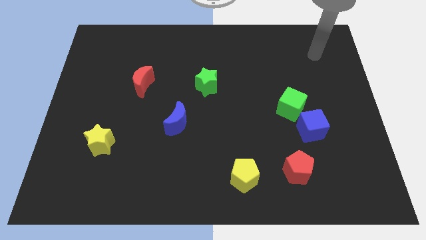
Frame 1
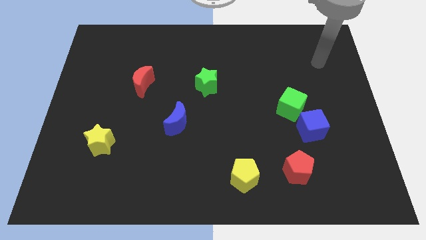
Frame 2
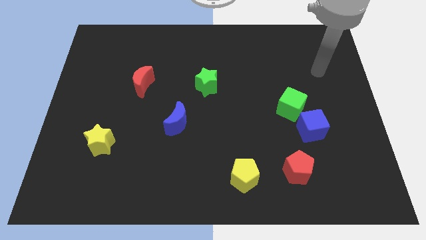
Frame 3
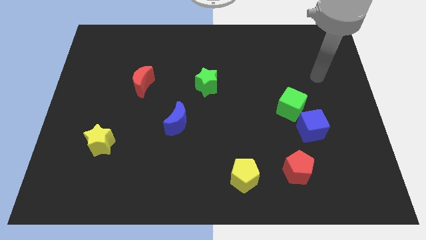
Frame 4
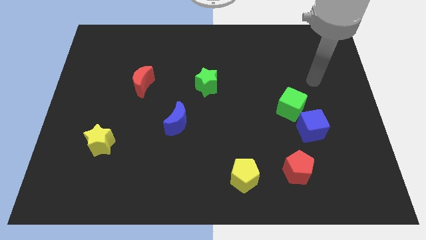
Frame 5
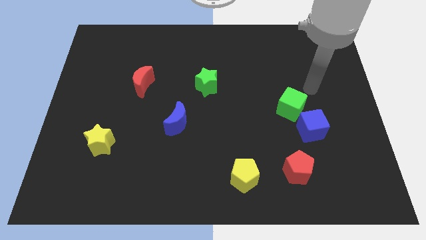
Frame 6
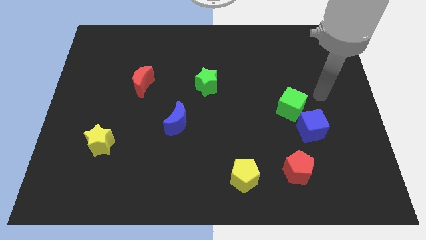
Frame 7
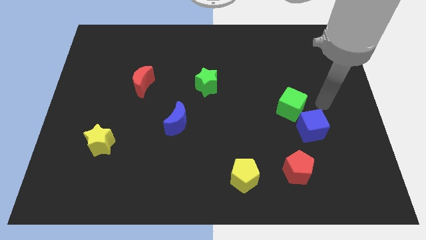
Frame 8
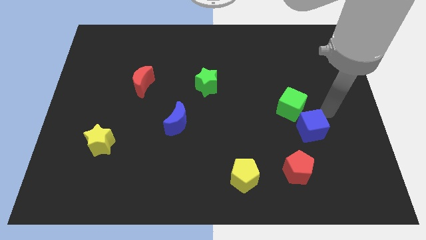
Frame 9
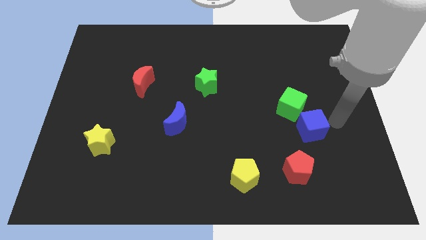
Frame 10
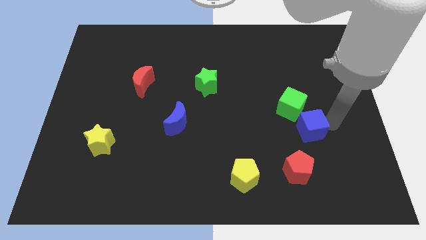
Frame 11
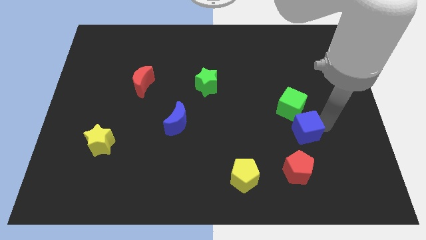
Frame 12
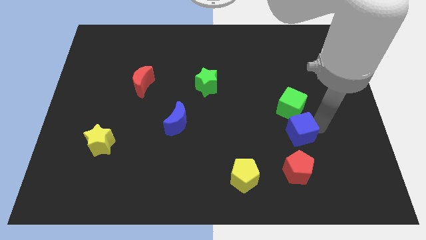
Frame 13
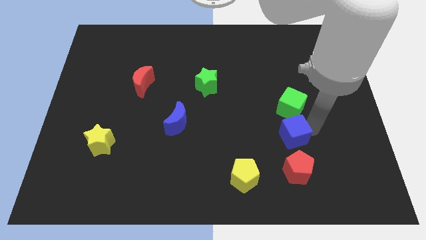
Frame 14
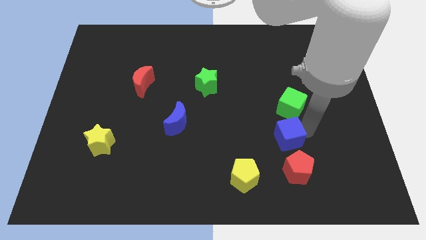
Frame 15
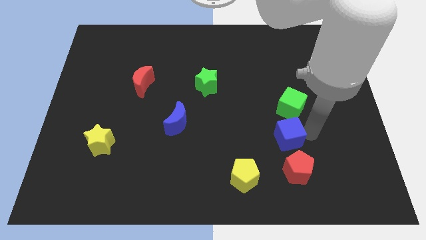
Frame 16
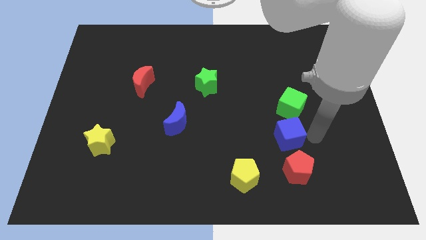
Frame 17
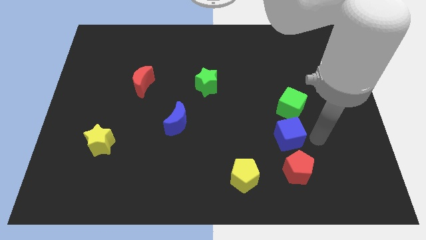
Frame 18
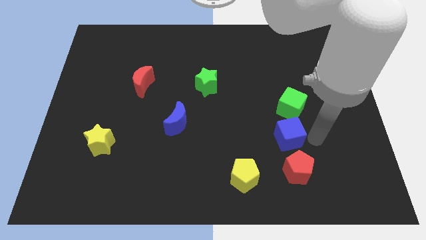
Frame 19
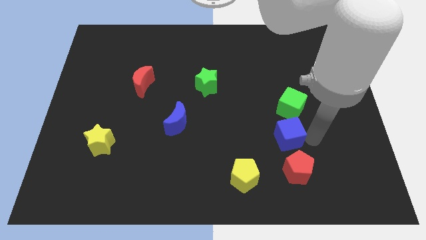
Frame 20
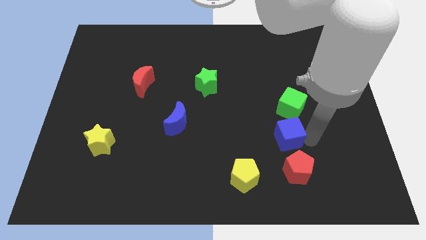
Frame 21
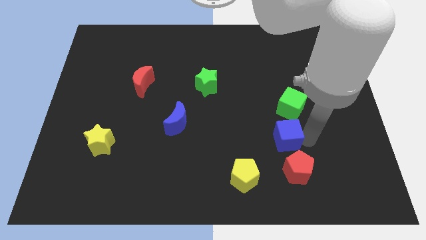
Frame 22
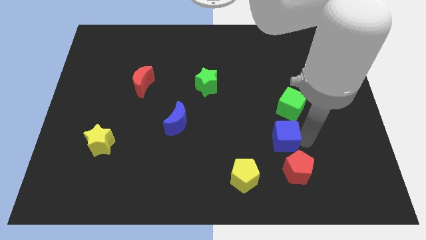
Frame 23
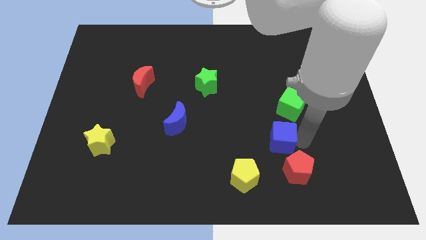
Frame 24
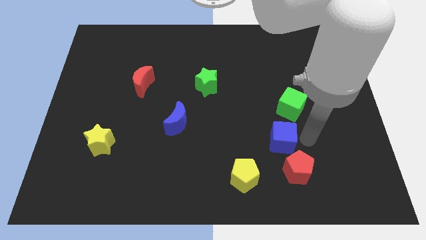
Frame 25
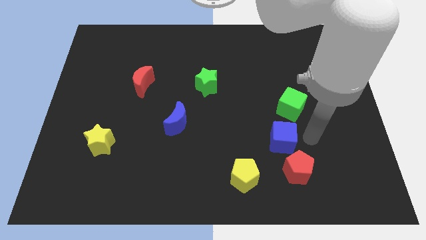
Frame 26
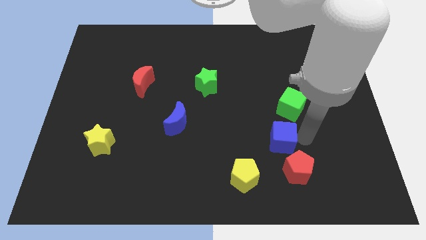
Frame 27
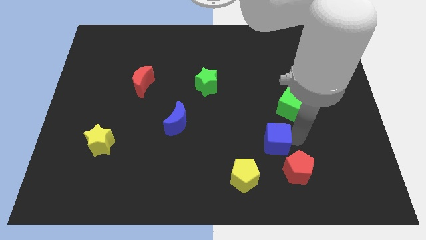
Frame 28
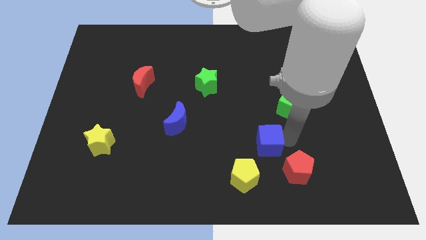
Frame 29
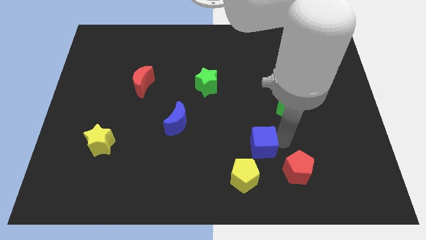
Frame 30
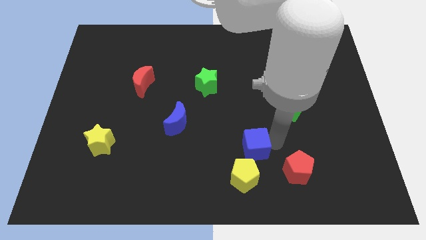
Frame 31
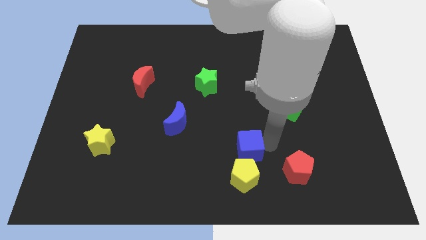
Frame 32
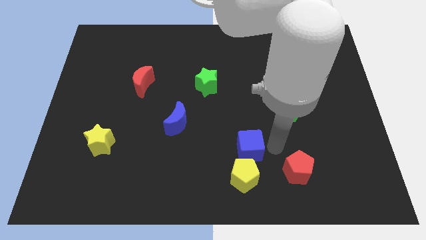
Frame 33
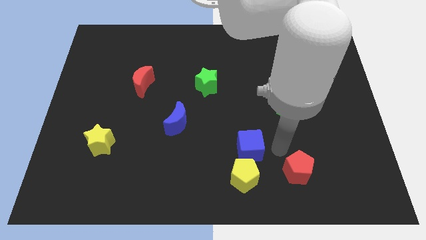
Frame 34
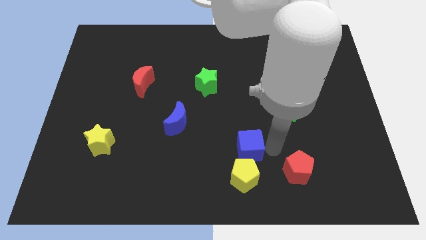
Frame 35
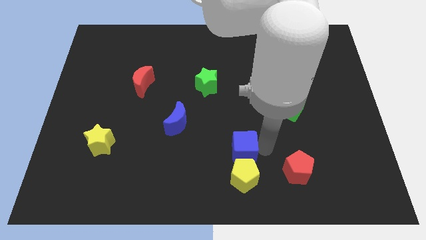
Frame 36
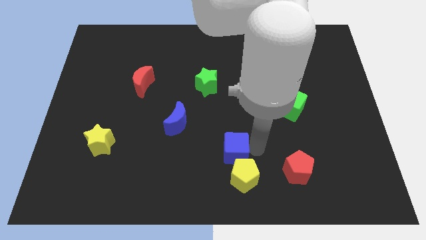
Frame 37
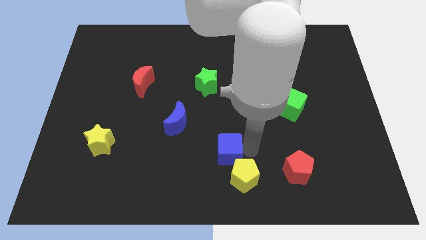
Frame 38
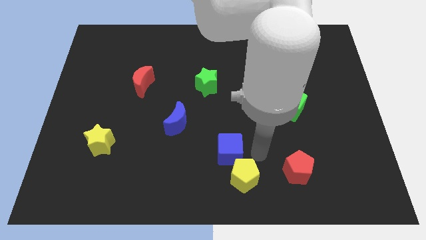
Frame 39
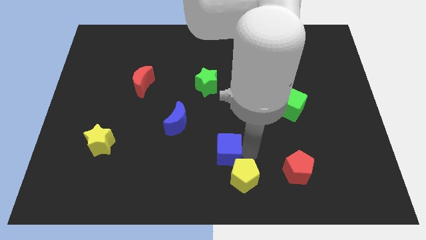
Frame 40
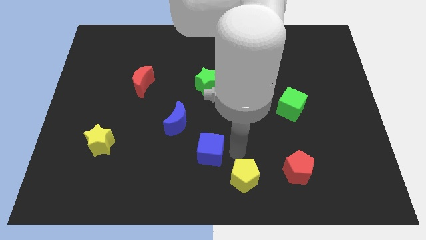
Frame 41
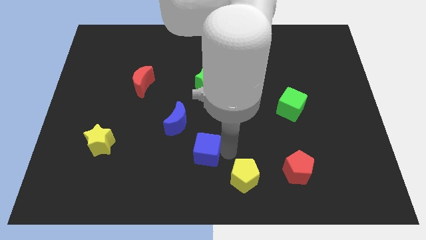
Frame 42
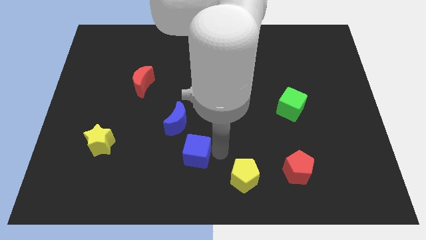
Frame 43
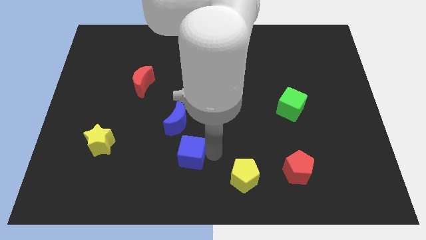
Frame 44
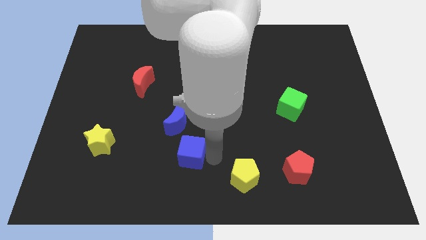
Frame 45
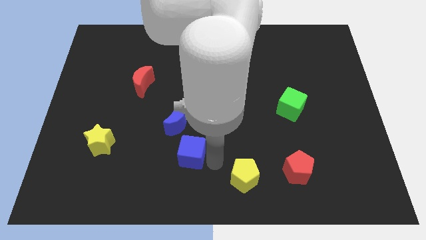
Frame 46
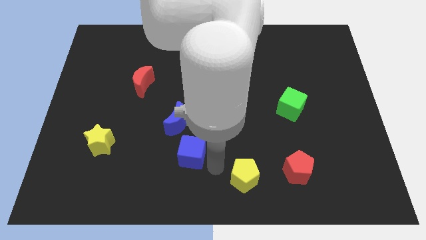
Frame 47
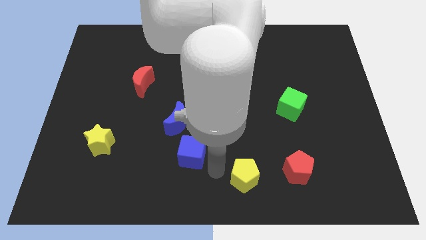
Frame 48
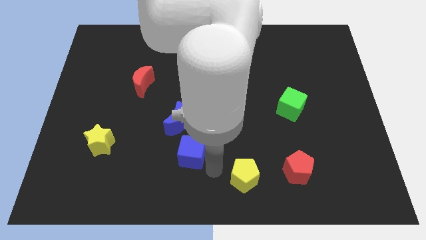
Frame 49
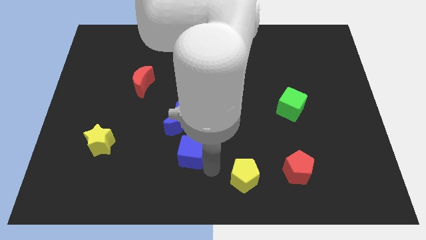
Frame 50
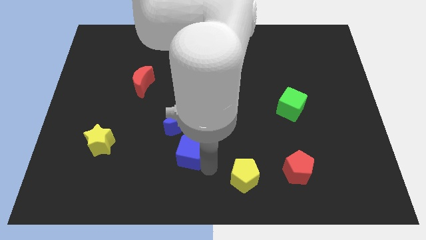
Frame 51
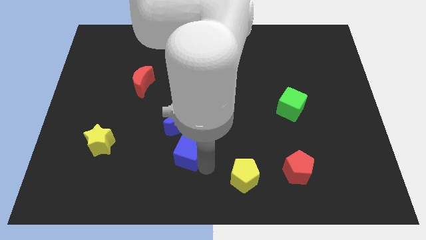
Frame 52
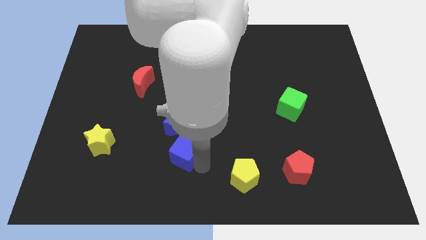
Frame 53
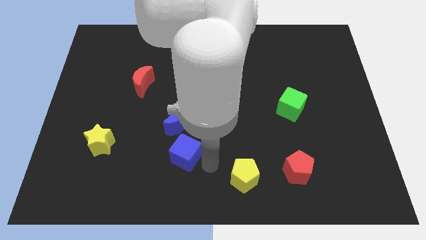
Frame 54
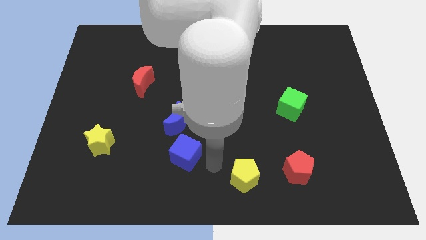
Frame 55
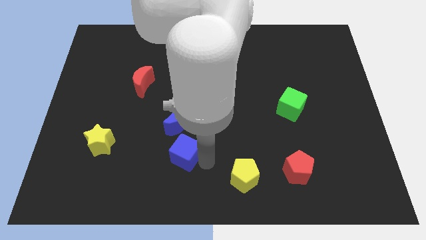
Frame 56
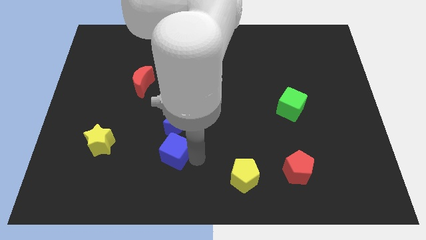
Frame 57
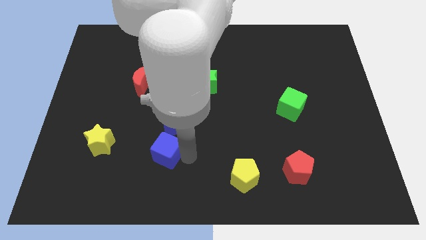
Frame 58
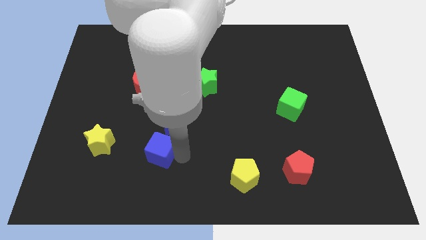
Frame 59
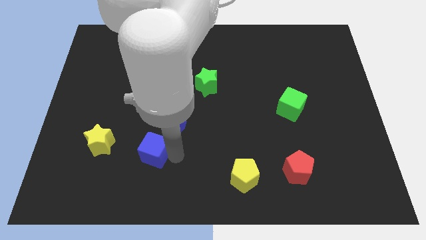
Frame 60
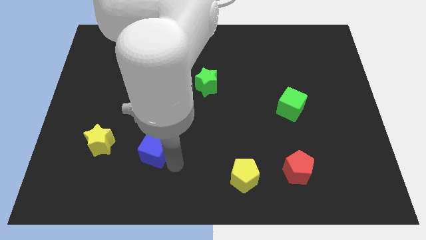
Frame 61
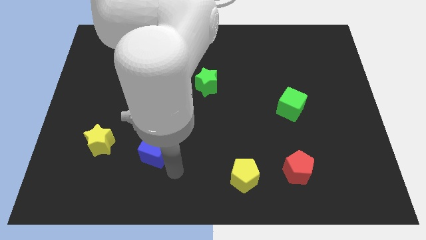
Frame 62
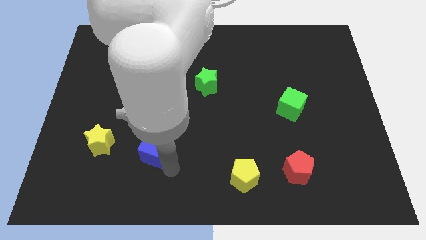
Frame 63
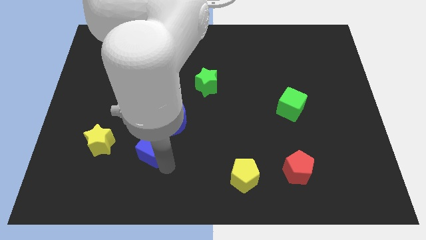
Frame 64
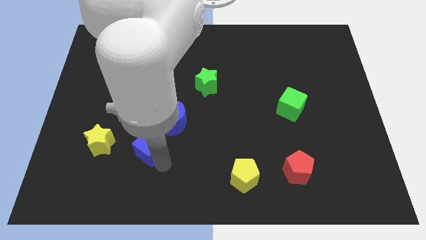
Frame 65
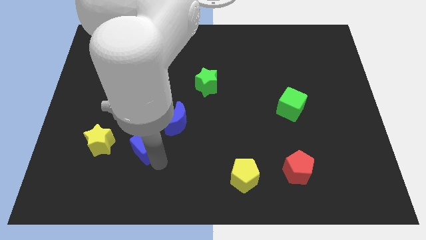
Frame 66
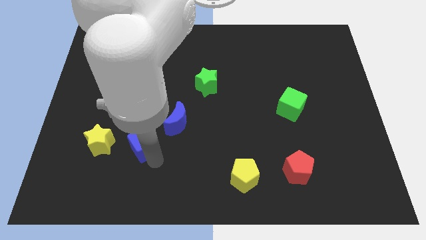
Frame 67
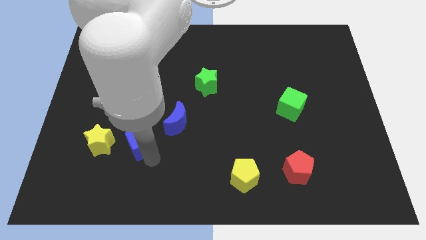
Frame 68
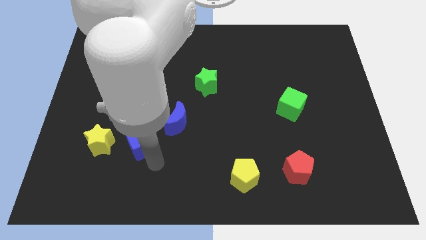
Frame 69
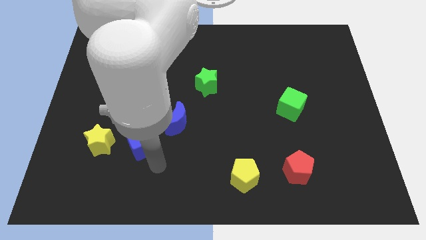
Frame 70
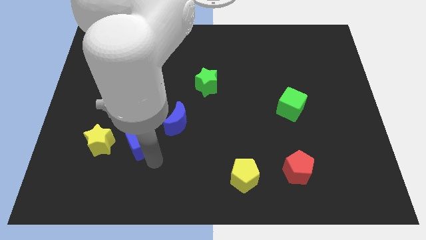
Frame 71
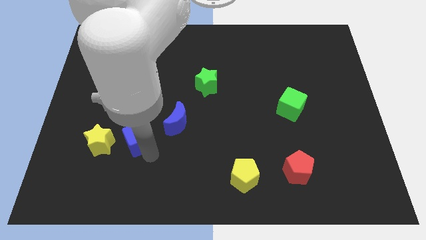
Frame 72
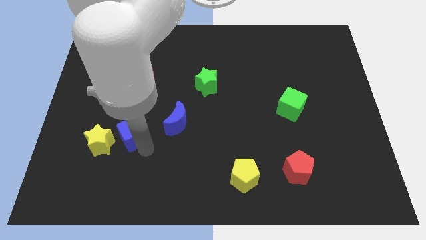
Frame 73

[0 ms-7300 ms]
push the blue cube to the top right side of the yellow star

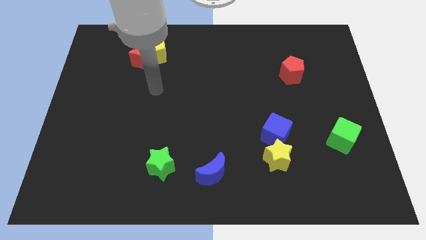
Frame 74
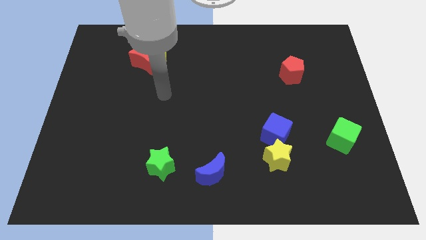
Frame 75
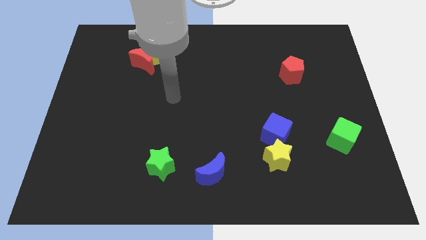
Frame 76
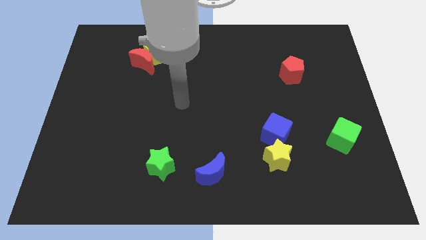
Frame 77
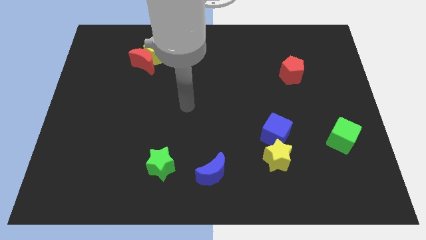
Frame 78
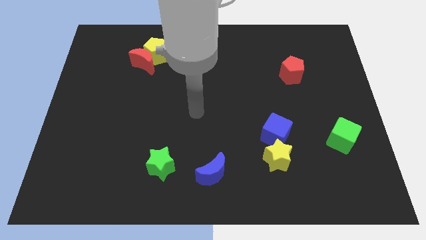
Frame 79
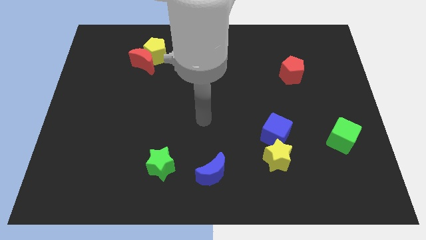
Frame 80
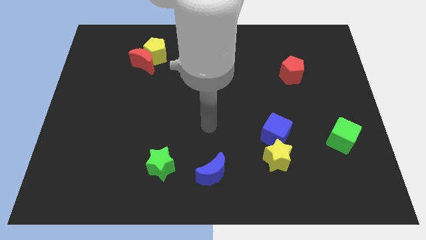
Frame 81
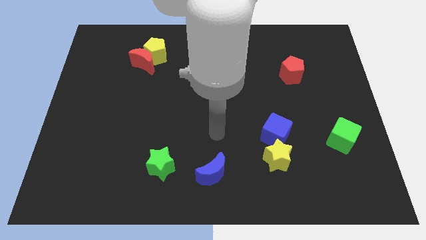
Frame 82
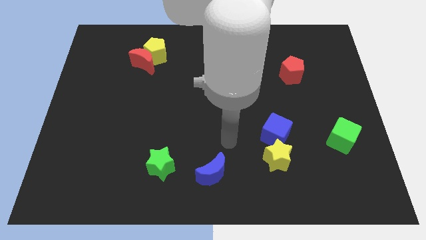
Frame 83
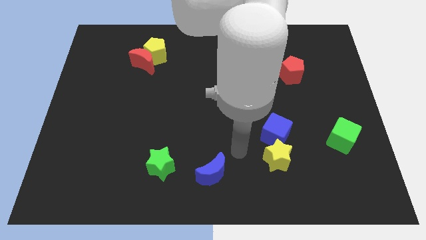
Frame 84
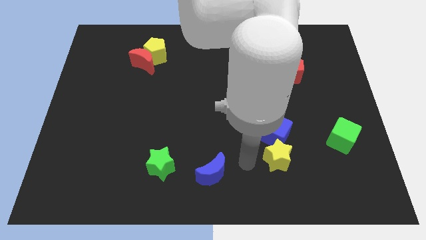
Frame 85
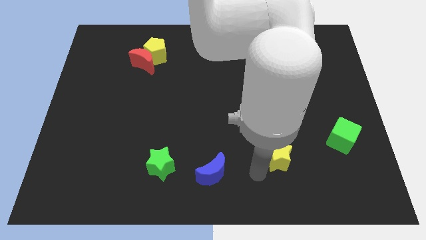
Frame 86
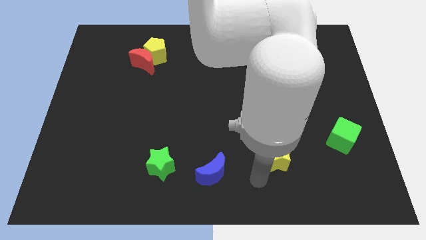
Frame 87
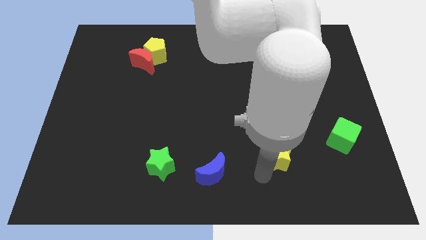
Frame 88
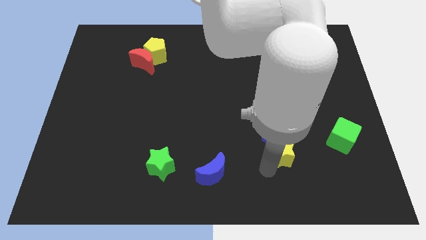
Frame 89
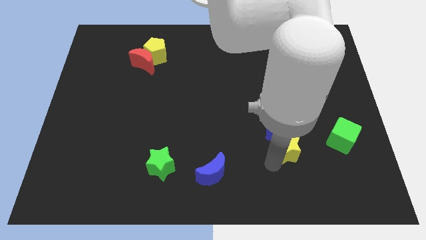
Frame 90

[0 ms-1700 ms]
move the yellow star to the left side of the green cube
